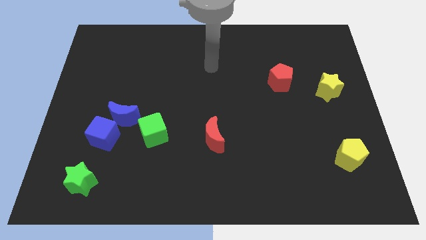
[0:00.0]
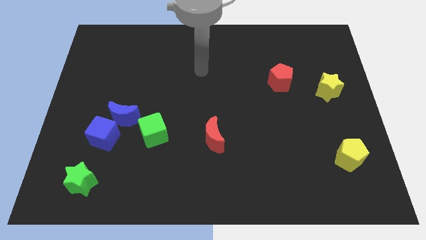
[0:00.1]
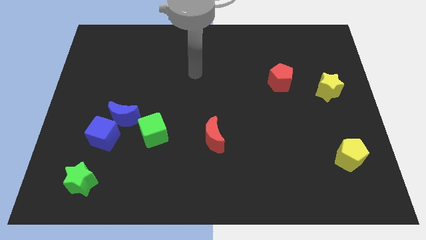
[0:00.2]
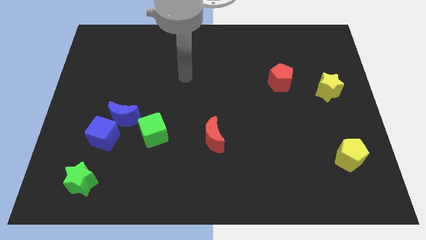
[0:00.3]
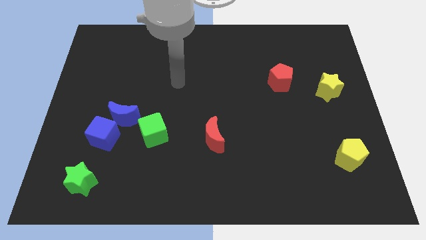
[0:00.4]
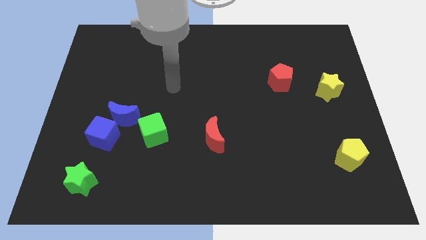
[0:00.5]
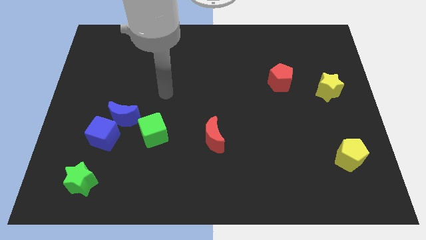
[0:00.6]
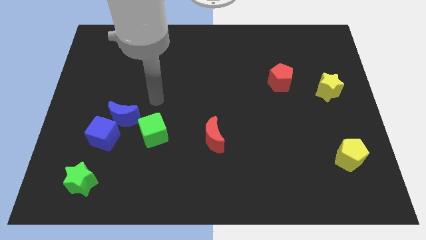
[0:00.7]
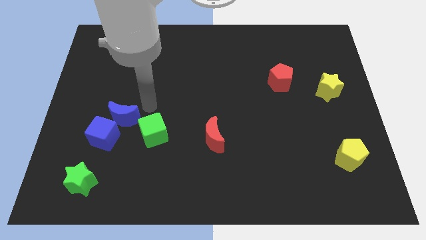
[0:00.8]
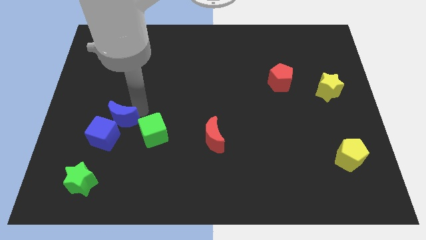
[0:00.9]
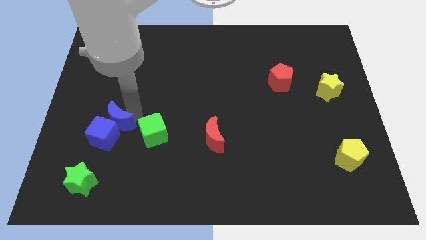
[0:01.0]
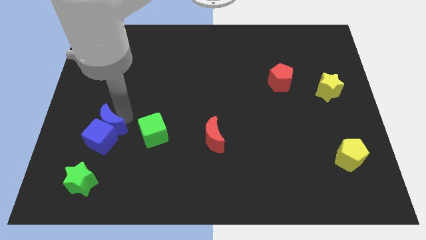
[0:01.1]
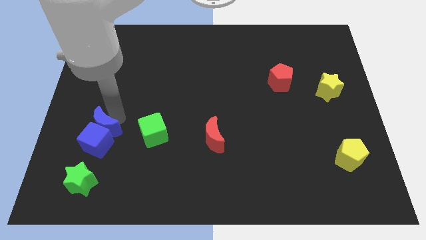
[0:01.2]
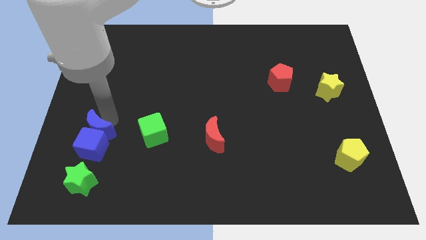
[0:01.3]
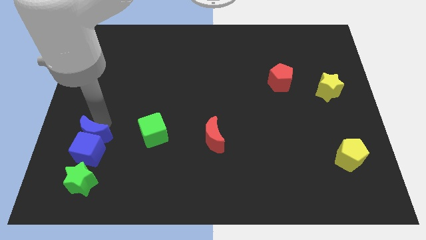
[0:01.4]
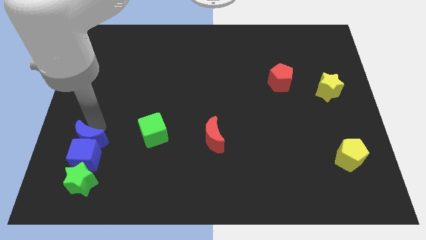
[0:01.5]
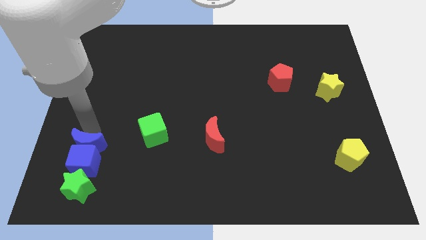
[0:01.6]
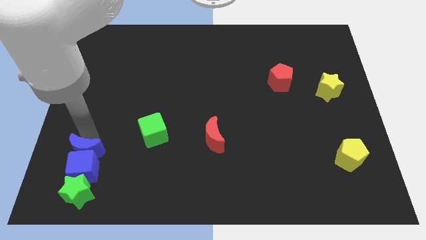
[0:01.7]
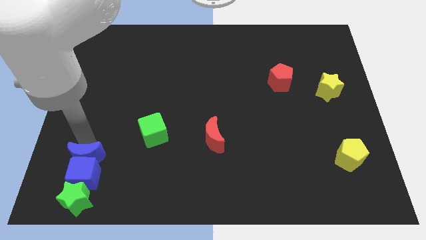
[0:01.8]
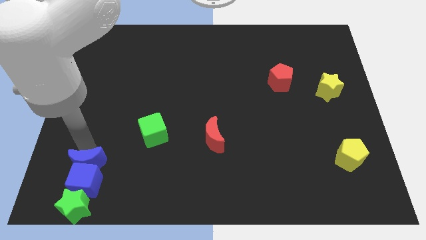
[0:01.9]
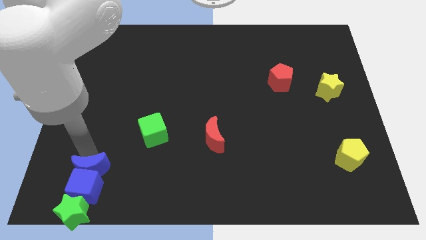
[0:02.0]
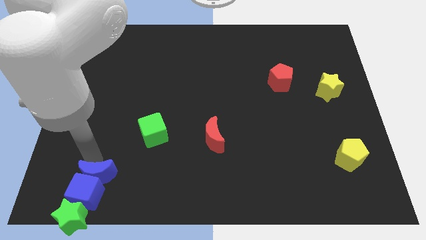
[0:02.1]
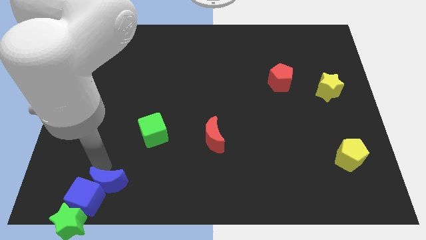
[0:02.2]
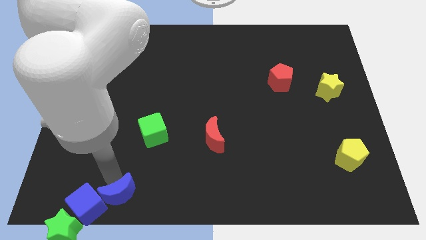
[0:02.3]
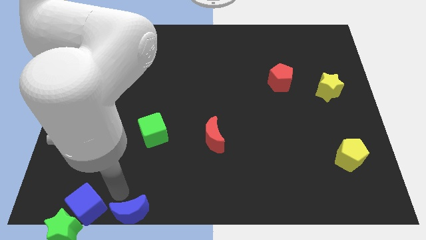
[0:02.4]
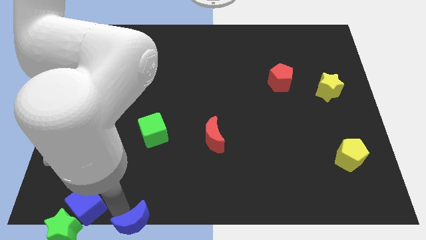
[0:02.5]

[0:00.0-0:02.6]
pull the blue cube apart from the blue moon

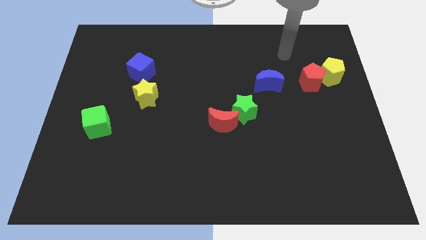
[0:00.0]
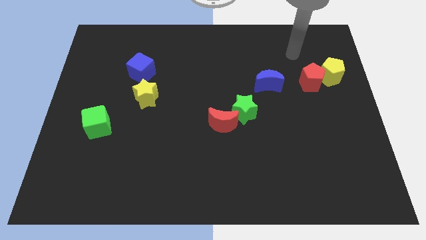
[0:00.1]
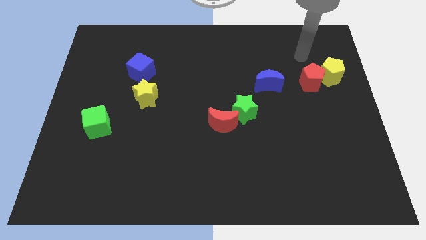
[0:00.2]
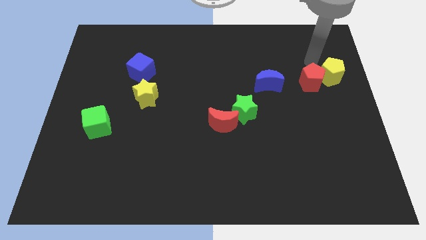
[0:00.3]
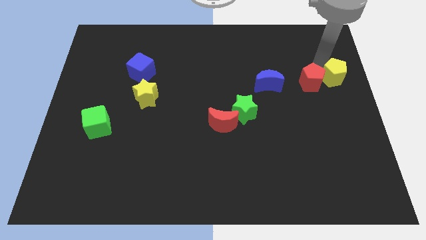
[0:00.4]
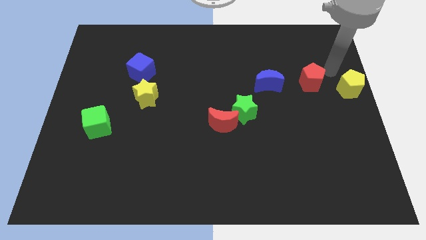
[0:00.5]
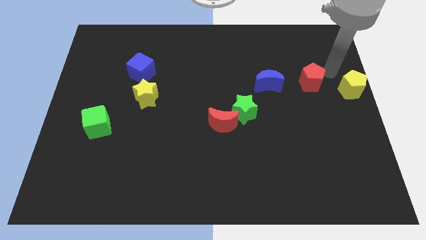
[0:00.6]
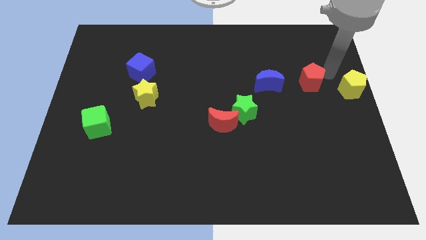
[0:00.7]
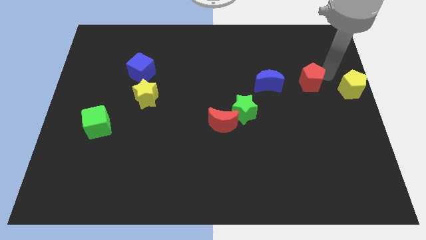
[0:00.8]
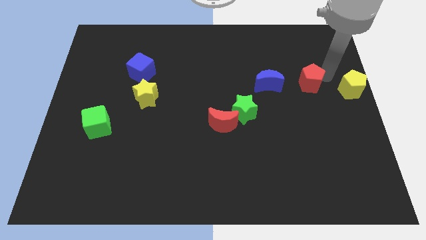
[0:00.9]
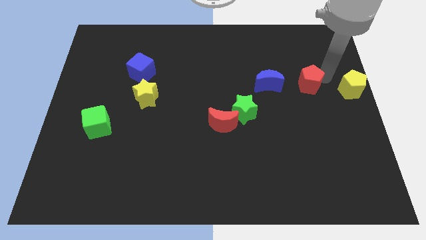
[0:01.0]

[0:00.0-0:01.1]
move the red pentagon away from the yellow pentagon

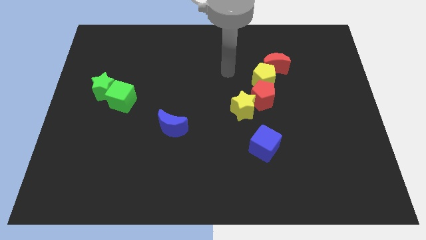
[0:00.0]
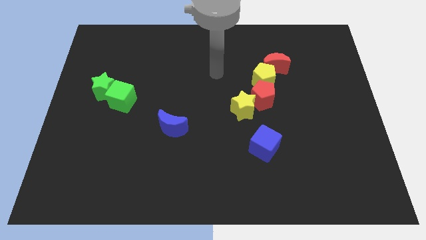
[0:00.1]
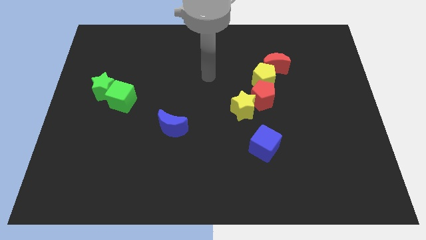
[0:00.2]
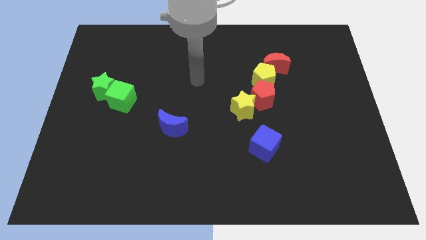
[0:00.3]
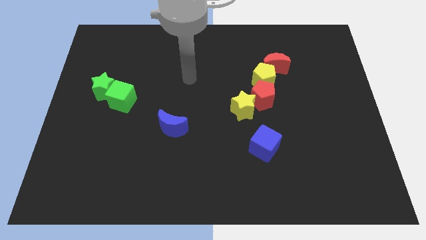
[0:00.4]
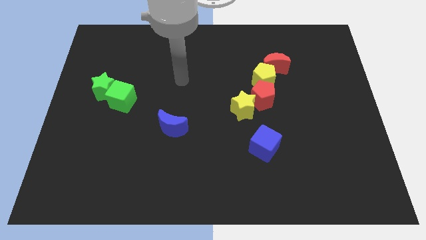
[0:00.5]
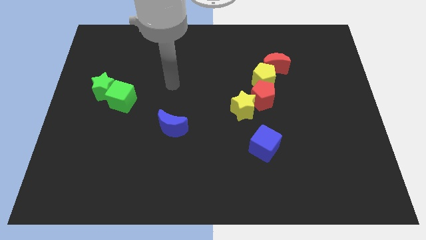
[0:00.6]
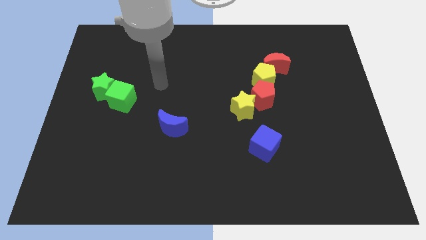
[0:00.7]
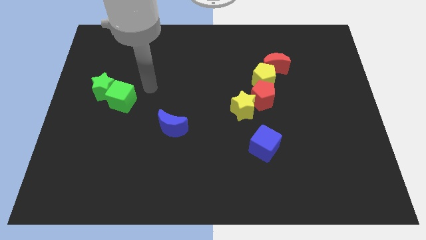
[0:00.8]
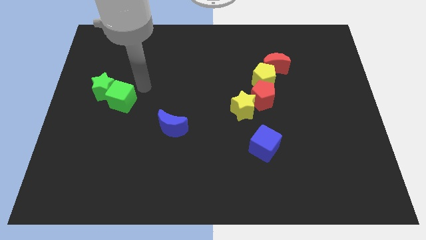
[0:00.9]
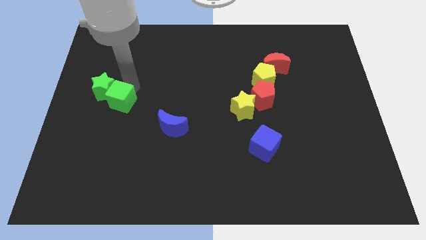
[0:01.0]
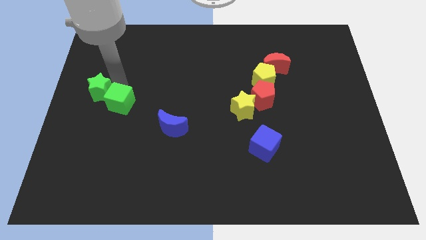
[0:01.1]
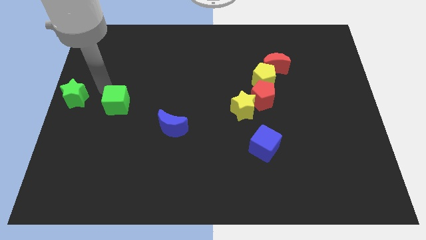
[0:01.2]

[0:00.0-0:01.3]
pull the green cube apart from the green star

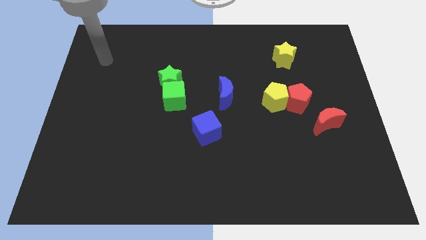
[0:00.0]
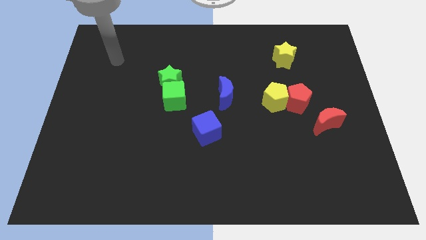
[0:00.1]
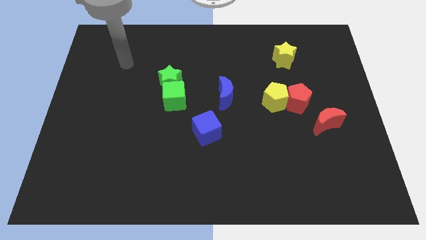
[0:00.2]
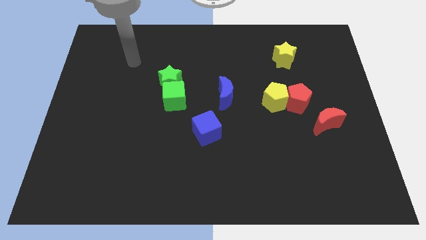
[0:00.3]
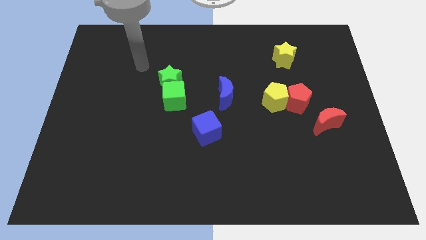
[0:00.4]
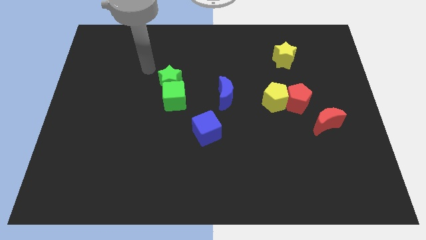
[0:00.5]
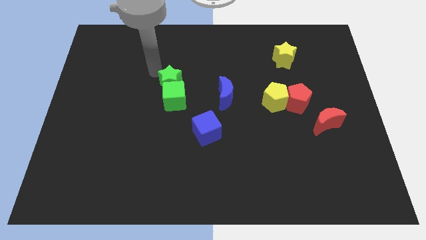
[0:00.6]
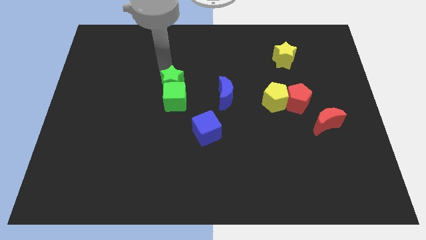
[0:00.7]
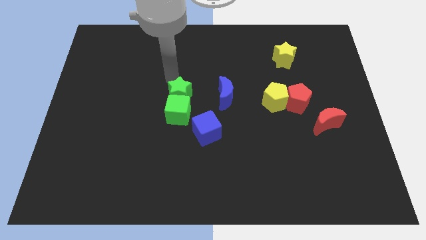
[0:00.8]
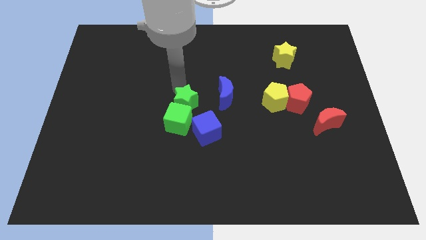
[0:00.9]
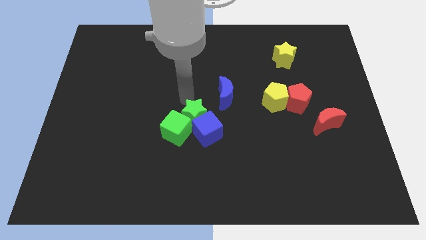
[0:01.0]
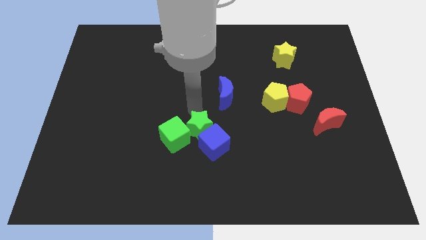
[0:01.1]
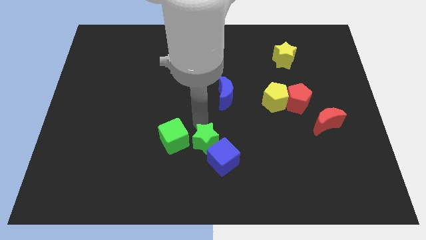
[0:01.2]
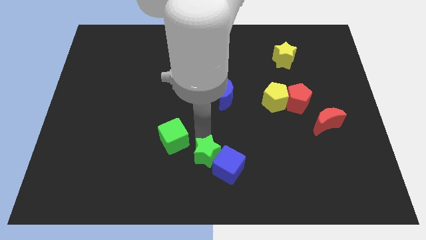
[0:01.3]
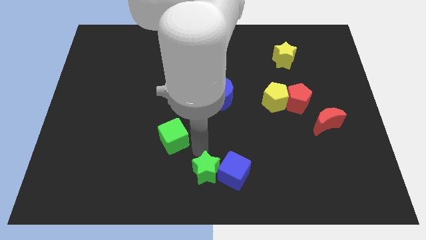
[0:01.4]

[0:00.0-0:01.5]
move the green cube away from the green star

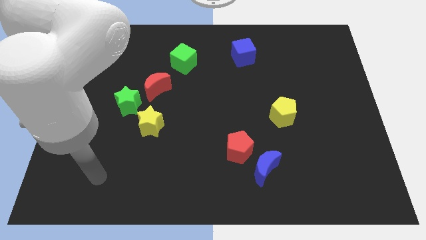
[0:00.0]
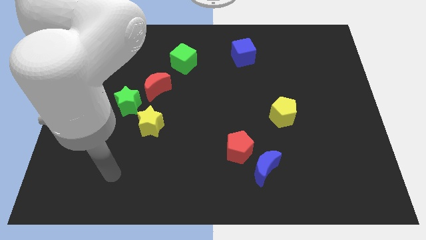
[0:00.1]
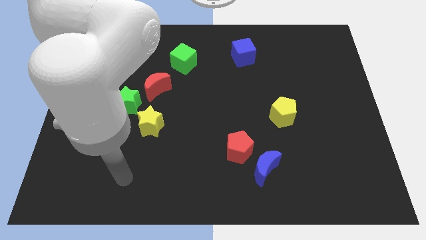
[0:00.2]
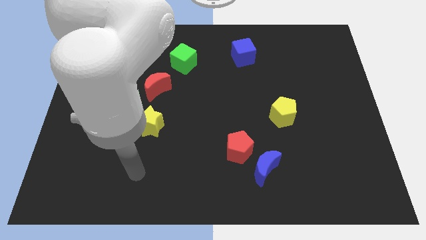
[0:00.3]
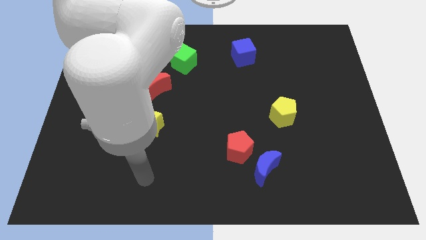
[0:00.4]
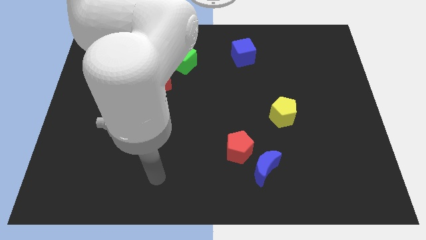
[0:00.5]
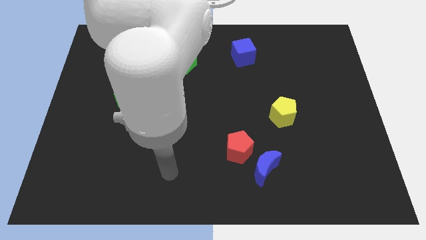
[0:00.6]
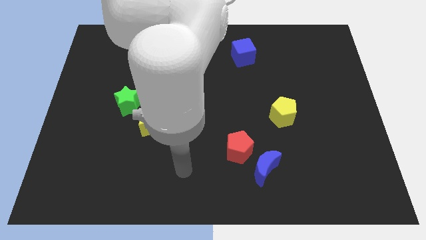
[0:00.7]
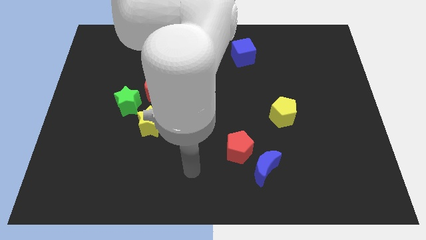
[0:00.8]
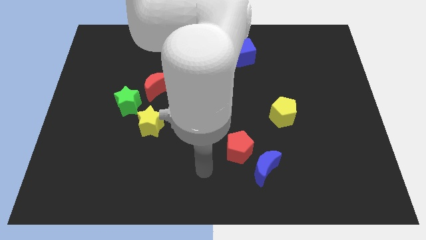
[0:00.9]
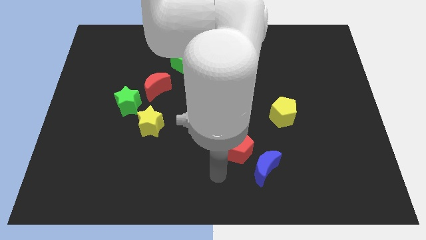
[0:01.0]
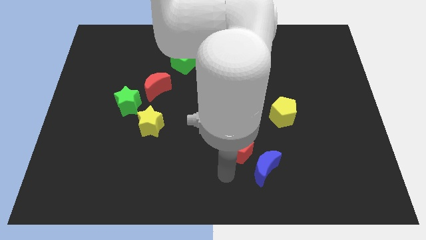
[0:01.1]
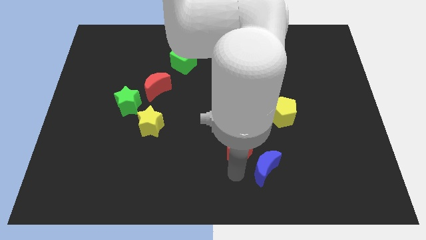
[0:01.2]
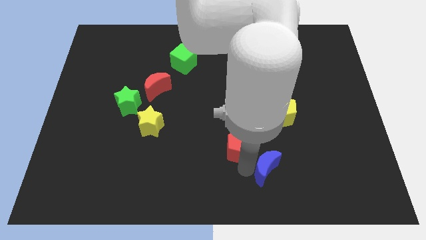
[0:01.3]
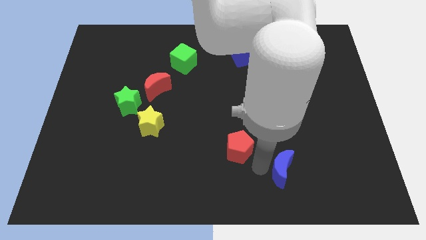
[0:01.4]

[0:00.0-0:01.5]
separate the red pentagon from the blue moon

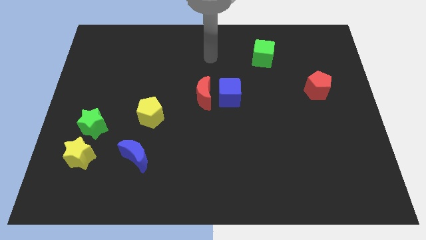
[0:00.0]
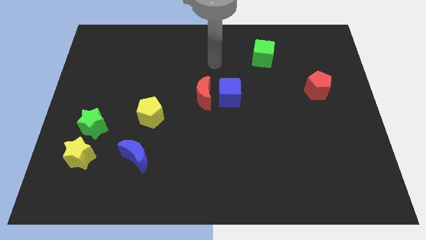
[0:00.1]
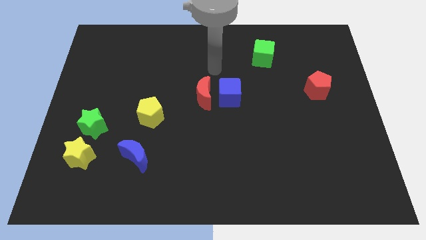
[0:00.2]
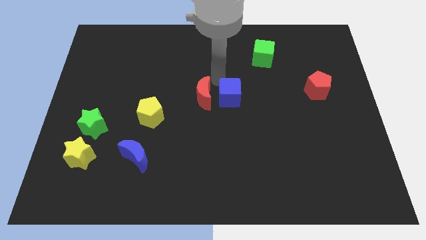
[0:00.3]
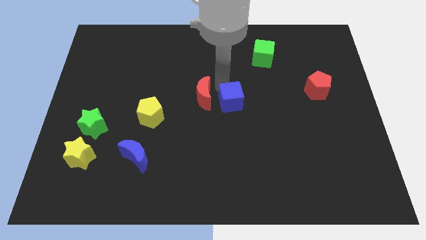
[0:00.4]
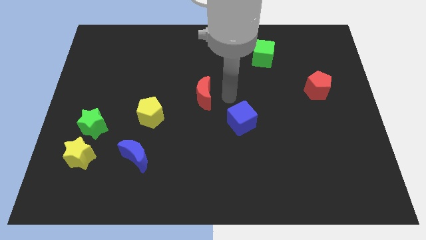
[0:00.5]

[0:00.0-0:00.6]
move the red moon away from the blue cube

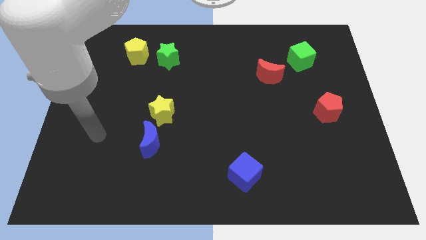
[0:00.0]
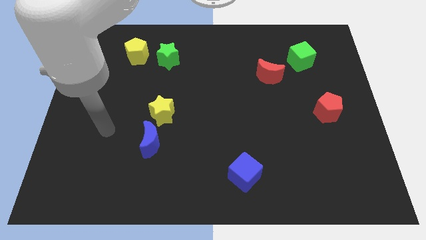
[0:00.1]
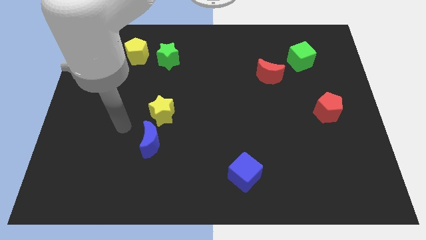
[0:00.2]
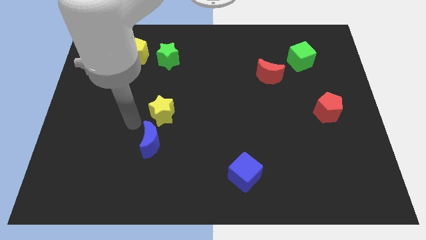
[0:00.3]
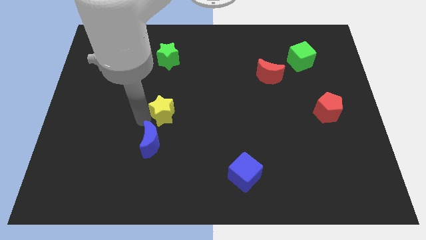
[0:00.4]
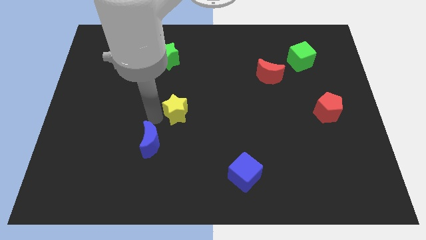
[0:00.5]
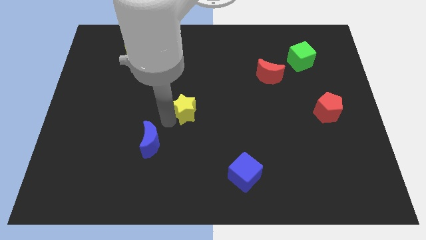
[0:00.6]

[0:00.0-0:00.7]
separate the blue moon from the yellow star
